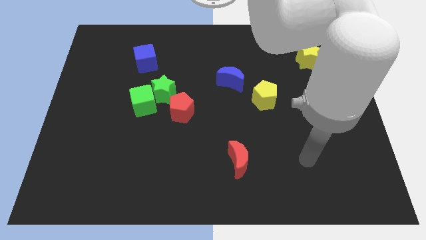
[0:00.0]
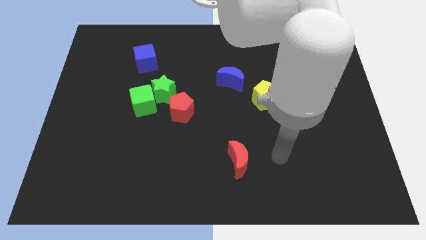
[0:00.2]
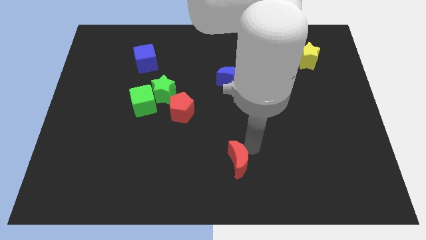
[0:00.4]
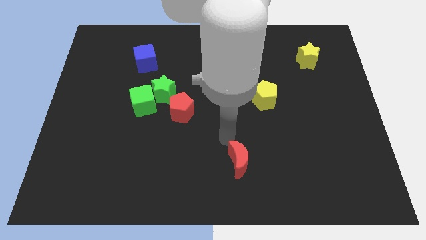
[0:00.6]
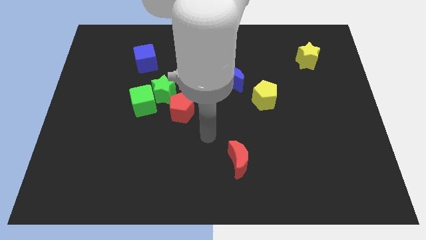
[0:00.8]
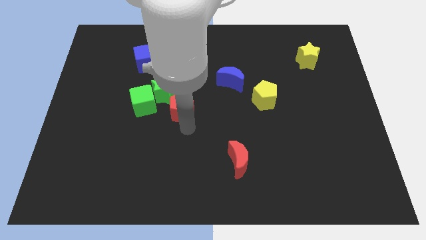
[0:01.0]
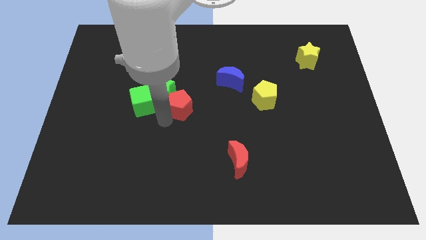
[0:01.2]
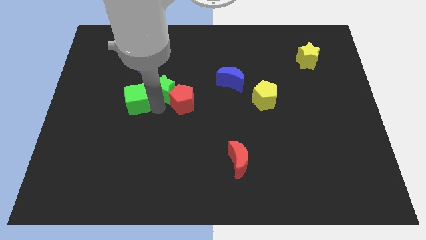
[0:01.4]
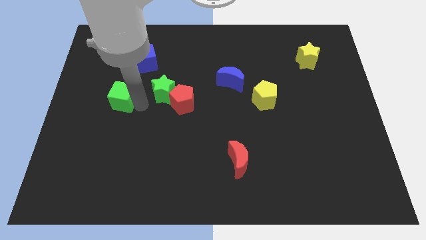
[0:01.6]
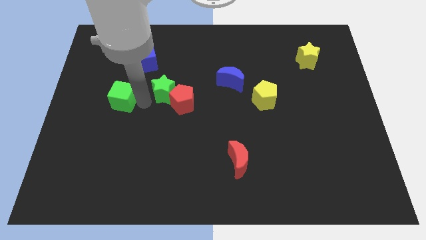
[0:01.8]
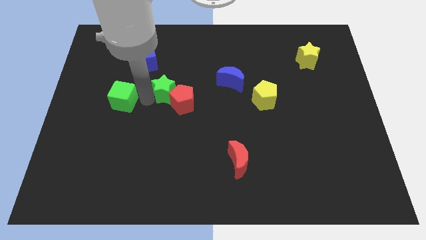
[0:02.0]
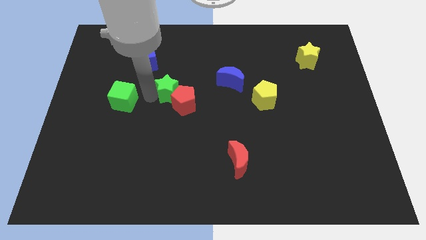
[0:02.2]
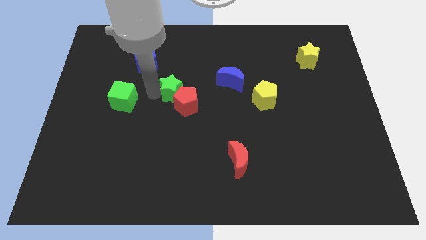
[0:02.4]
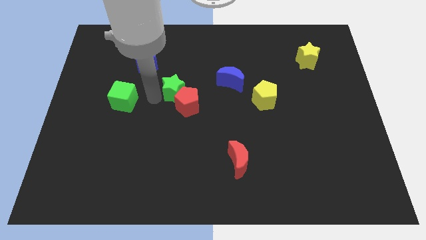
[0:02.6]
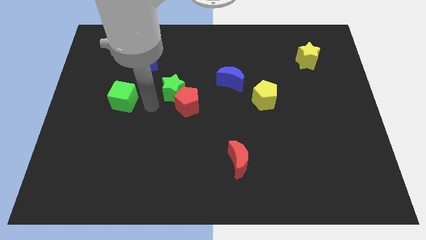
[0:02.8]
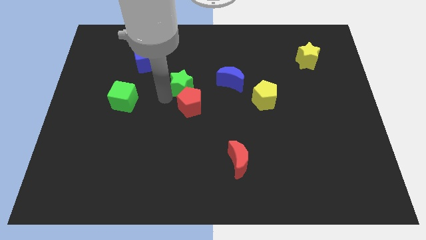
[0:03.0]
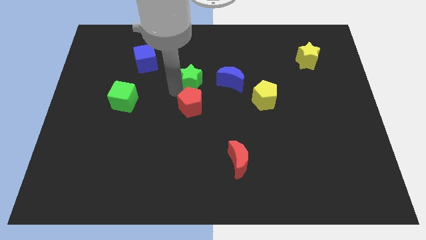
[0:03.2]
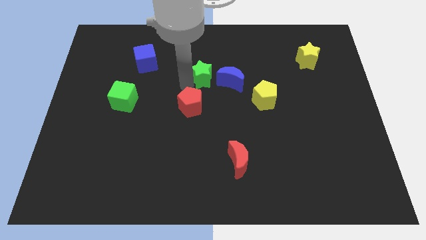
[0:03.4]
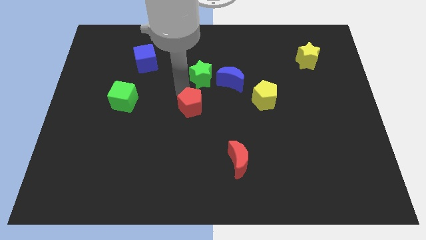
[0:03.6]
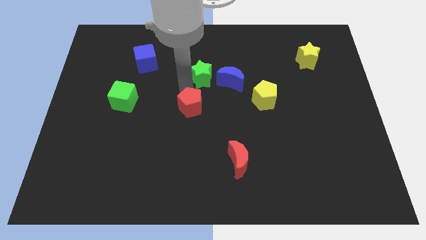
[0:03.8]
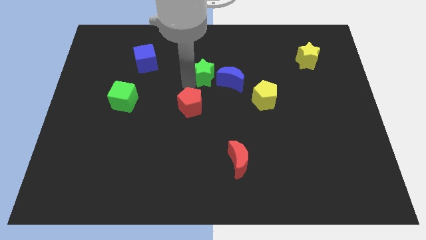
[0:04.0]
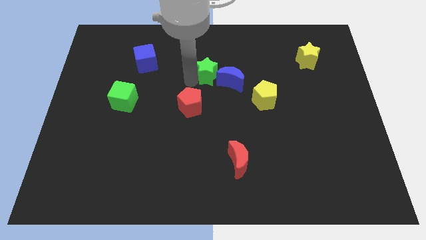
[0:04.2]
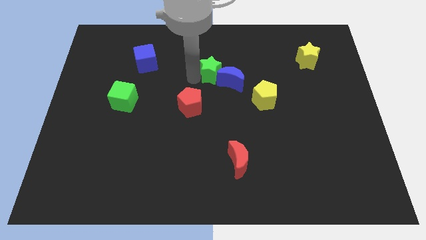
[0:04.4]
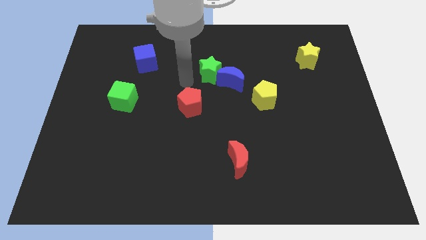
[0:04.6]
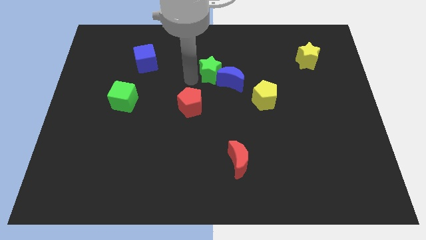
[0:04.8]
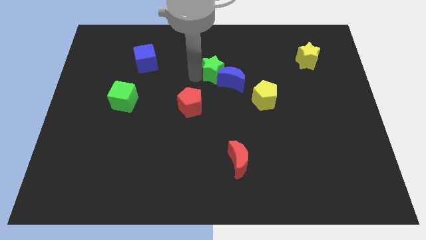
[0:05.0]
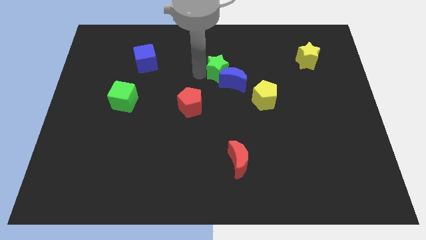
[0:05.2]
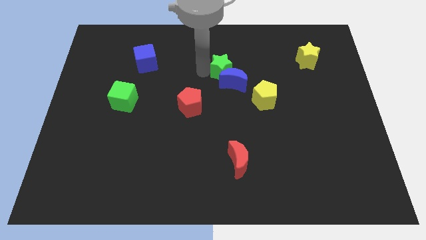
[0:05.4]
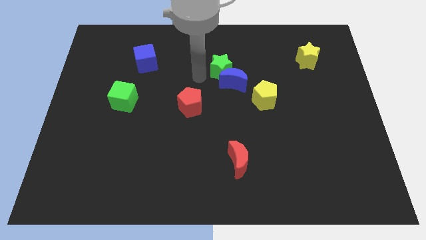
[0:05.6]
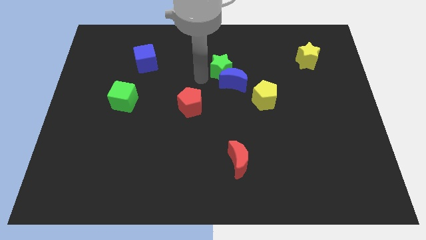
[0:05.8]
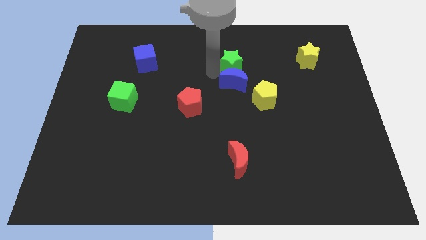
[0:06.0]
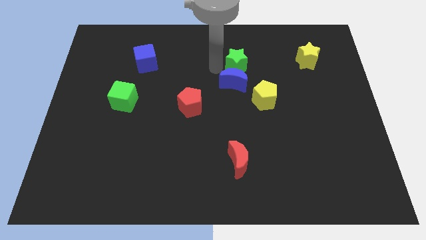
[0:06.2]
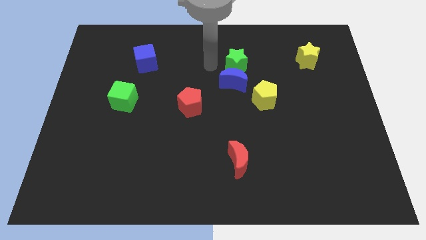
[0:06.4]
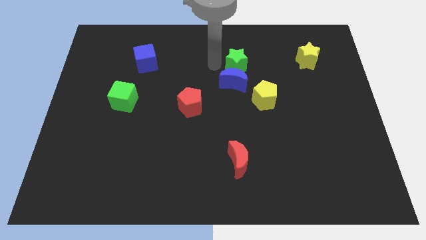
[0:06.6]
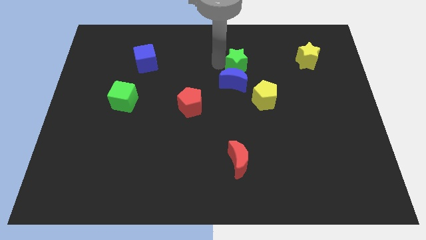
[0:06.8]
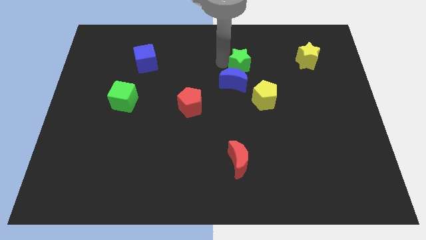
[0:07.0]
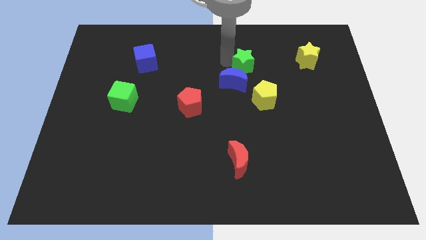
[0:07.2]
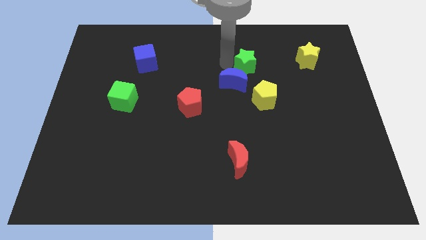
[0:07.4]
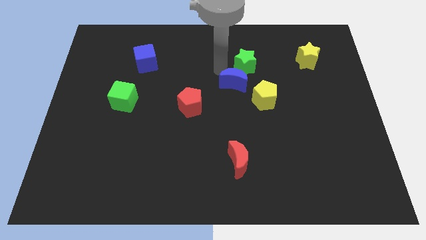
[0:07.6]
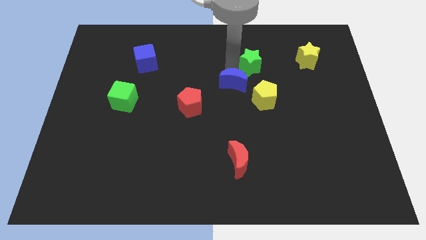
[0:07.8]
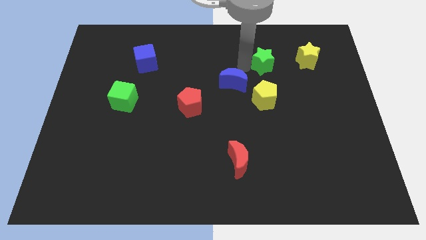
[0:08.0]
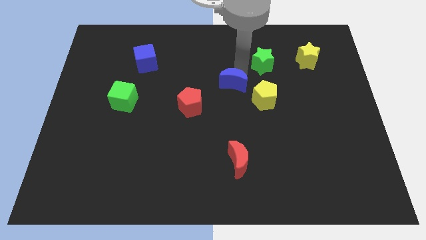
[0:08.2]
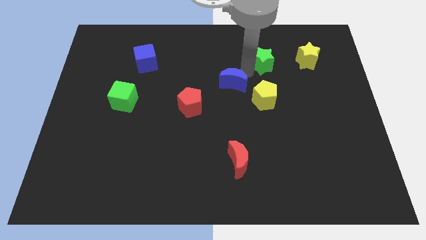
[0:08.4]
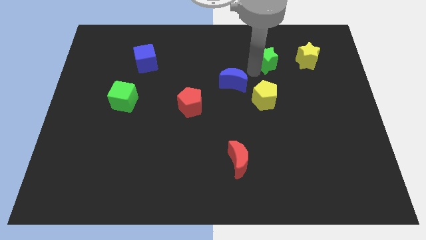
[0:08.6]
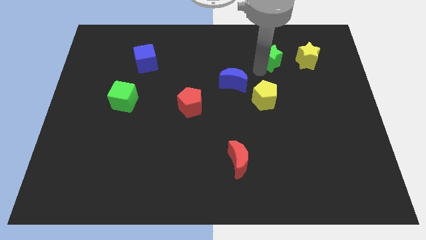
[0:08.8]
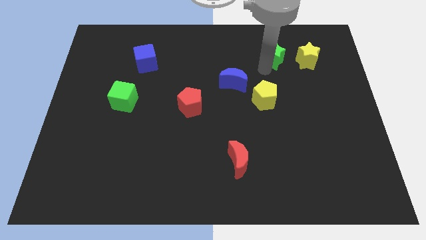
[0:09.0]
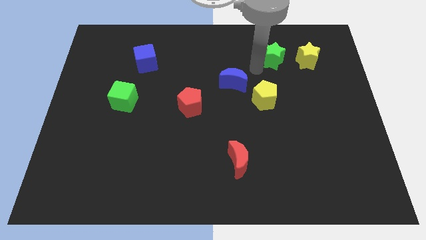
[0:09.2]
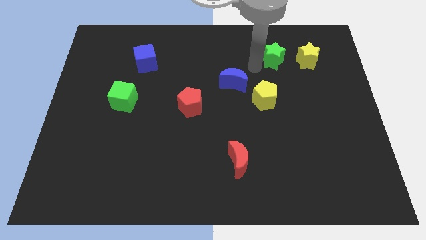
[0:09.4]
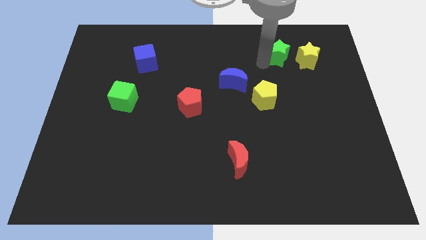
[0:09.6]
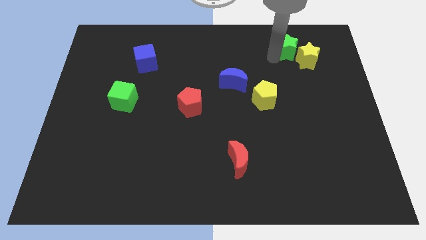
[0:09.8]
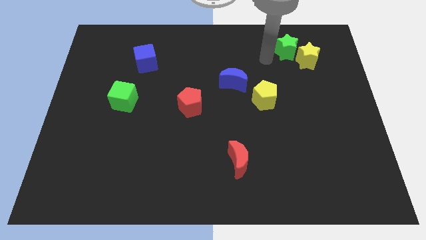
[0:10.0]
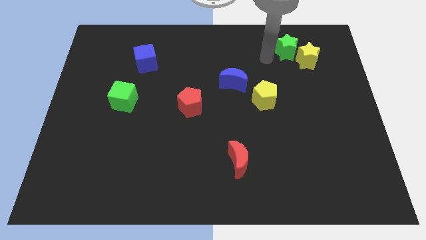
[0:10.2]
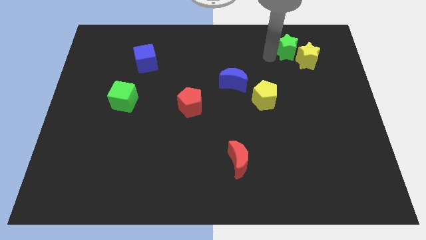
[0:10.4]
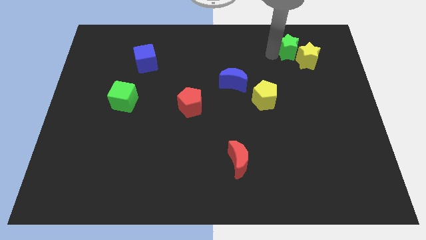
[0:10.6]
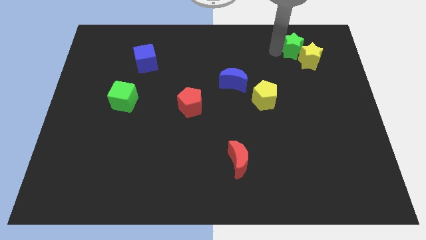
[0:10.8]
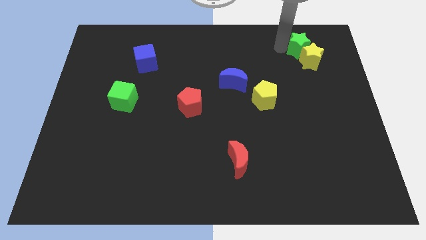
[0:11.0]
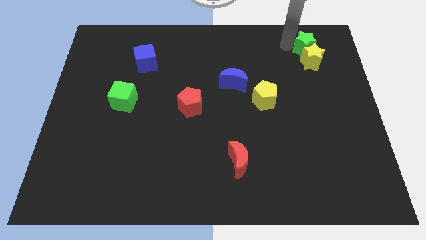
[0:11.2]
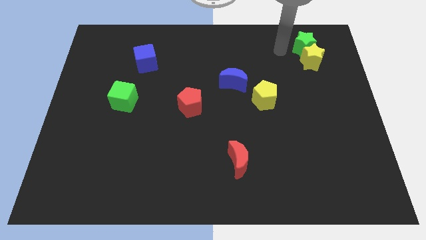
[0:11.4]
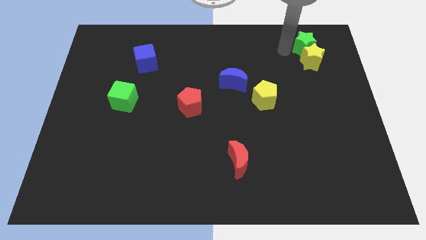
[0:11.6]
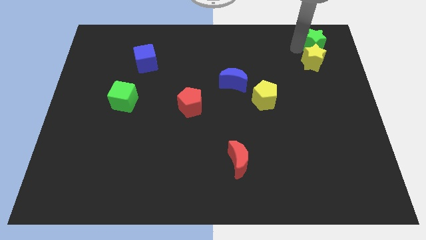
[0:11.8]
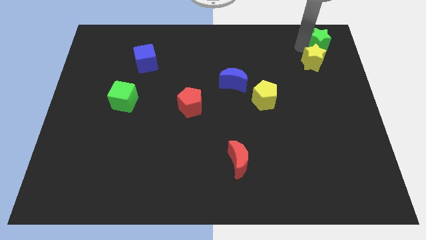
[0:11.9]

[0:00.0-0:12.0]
move the green star to the upper right corner

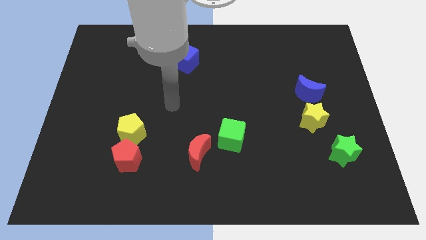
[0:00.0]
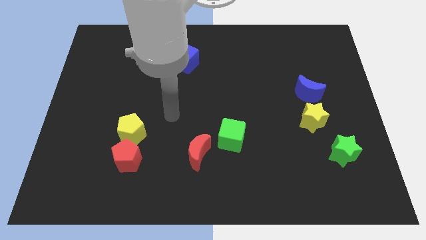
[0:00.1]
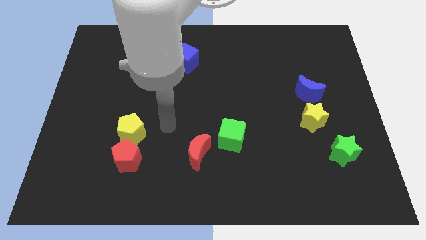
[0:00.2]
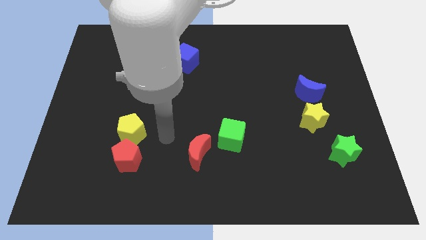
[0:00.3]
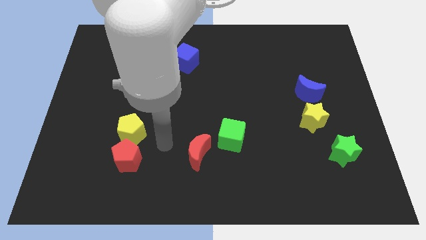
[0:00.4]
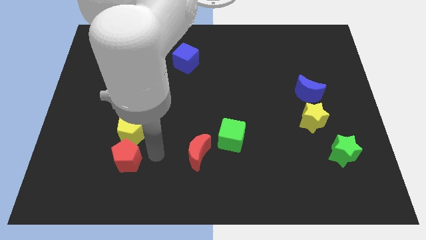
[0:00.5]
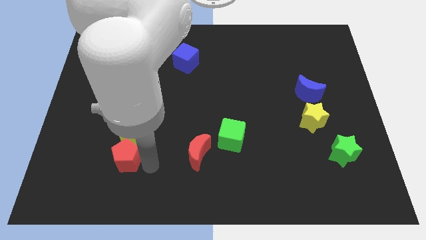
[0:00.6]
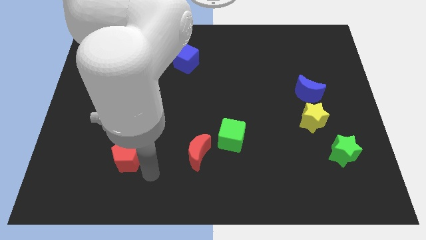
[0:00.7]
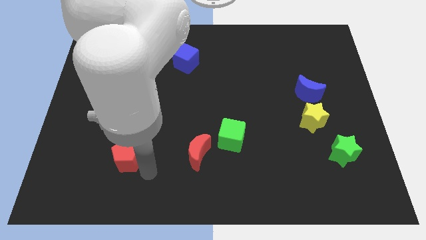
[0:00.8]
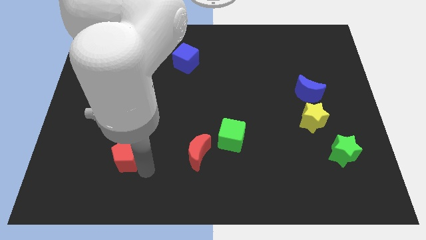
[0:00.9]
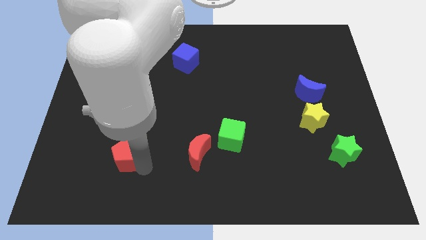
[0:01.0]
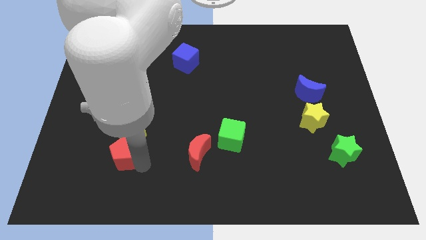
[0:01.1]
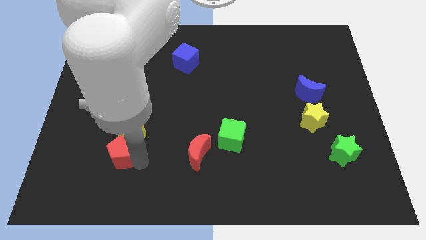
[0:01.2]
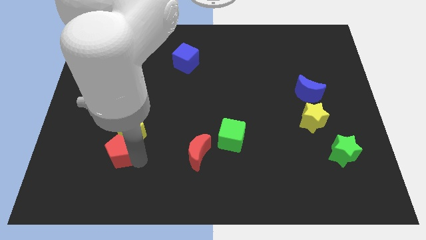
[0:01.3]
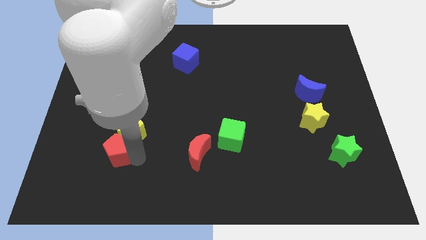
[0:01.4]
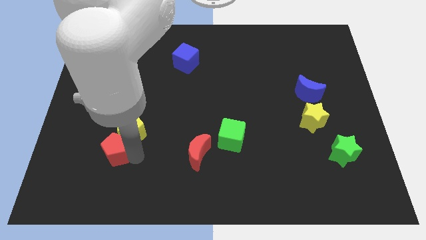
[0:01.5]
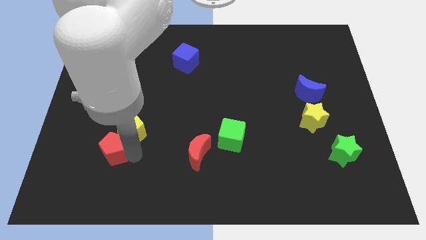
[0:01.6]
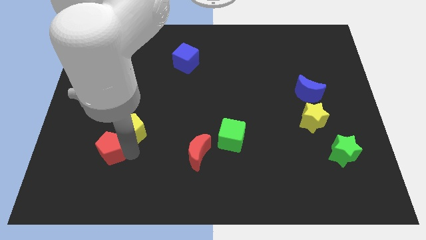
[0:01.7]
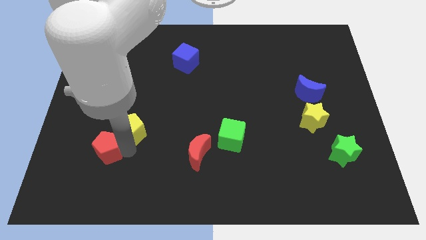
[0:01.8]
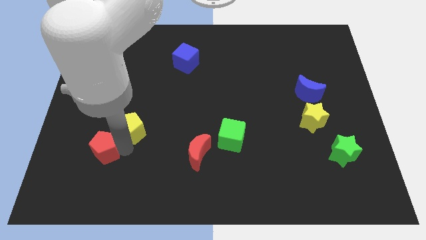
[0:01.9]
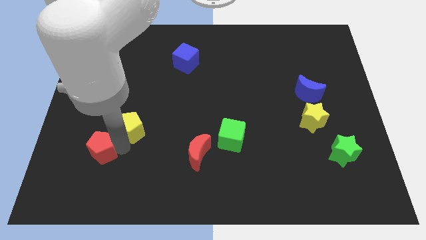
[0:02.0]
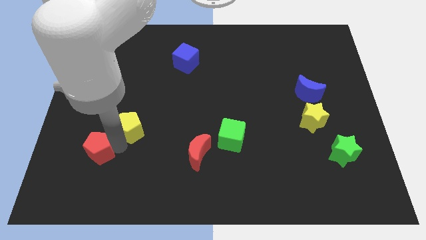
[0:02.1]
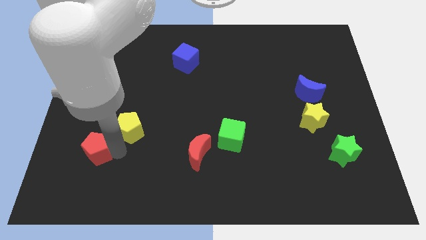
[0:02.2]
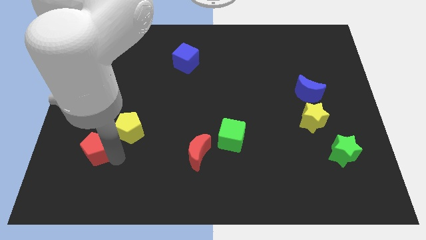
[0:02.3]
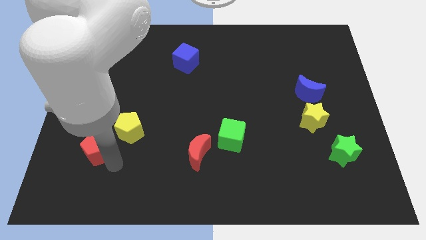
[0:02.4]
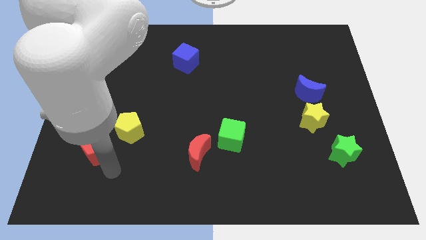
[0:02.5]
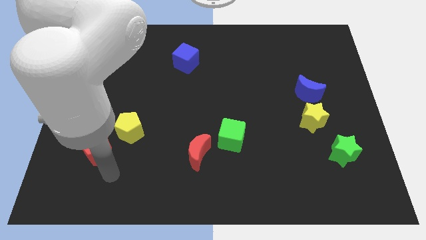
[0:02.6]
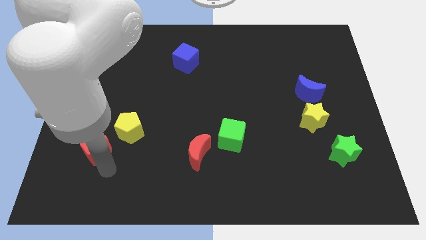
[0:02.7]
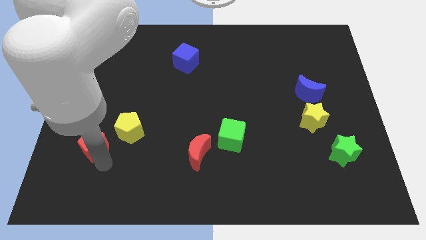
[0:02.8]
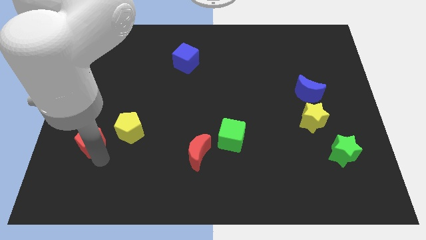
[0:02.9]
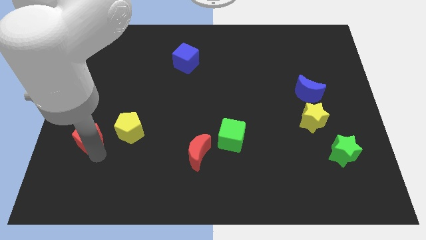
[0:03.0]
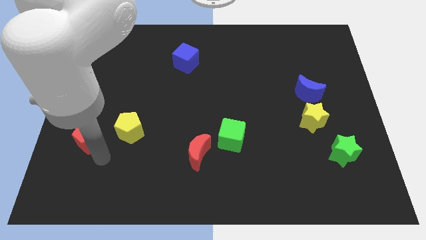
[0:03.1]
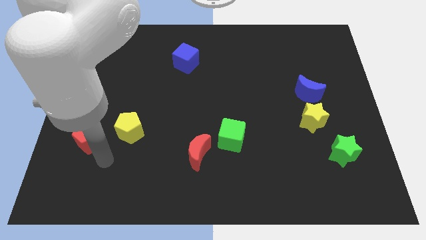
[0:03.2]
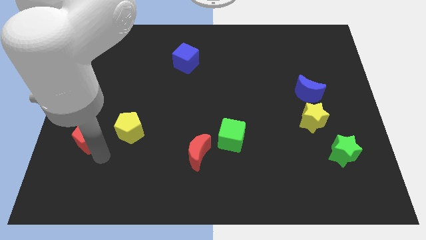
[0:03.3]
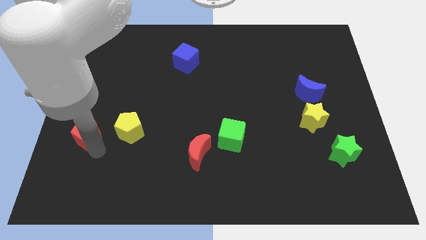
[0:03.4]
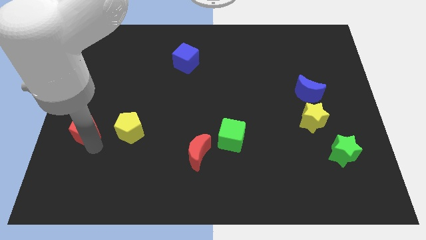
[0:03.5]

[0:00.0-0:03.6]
push the red pentagon to the center left
